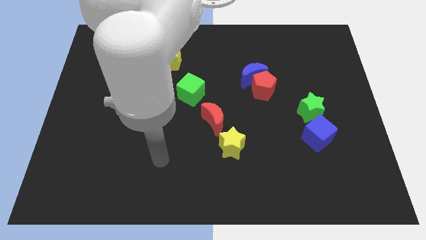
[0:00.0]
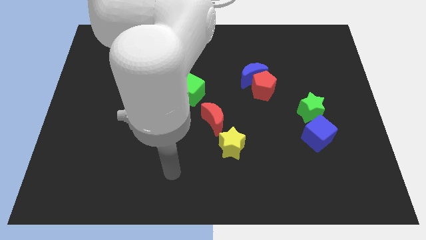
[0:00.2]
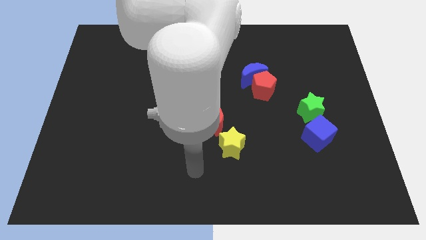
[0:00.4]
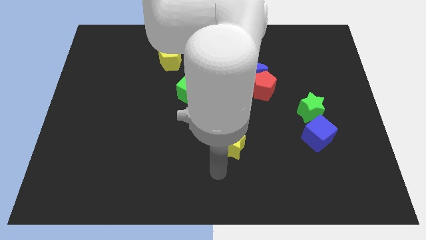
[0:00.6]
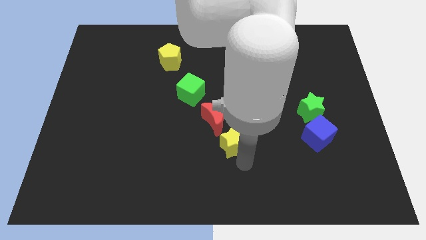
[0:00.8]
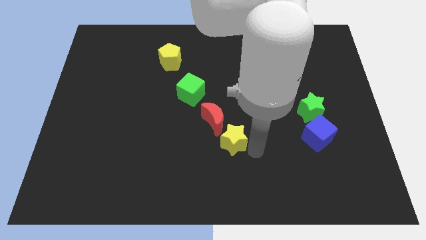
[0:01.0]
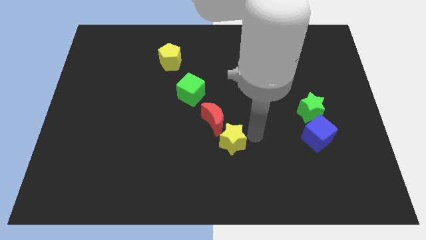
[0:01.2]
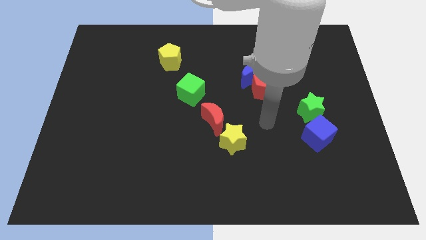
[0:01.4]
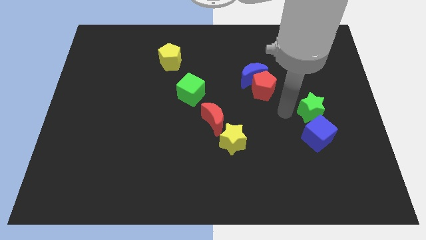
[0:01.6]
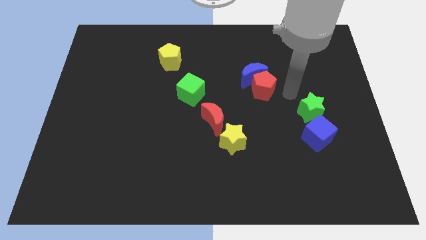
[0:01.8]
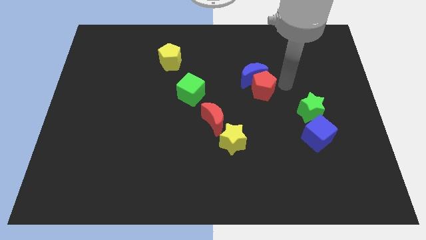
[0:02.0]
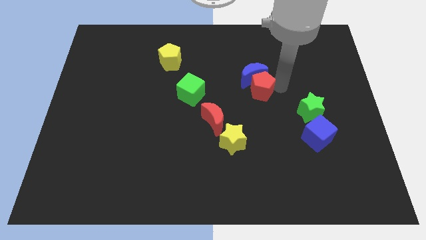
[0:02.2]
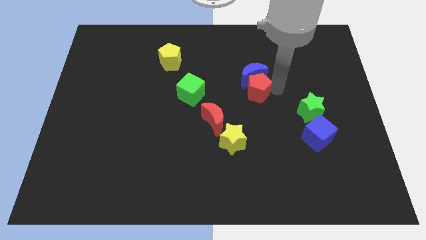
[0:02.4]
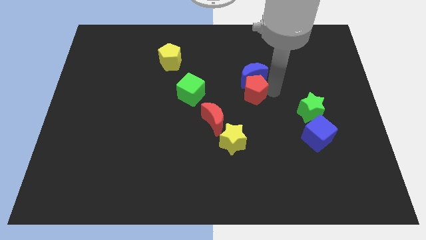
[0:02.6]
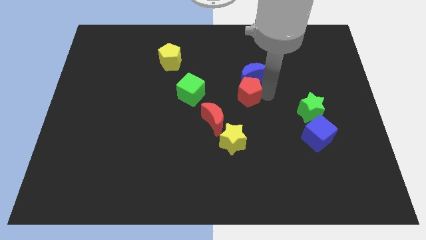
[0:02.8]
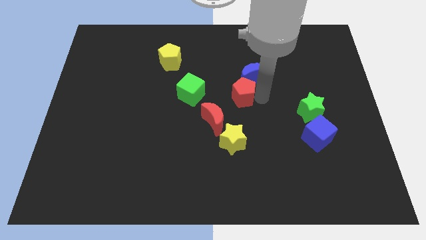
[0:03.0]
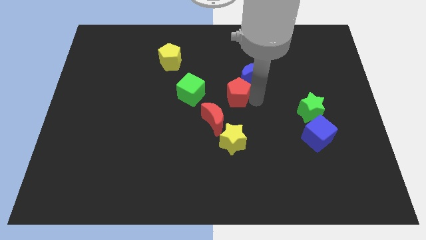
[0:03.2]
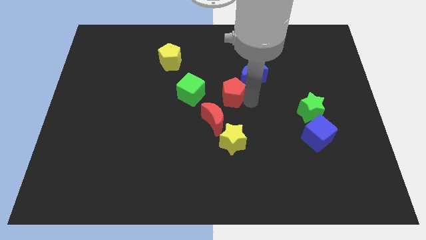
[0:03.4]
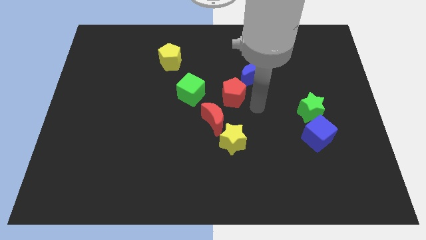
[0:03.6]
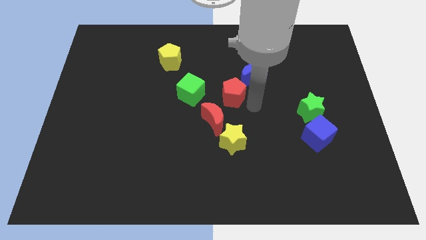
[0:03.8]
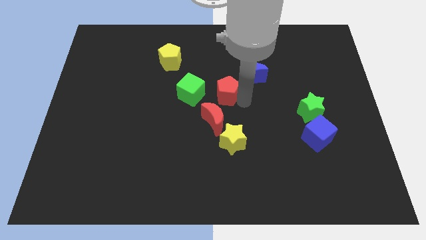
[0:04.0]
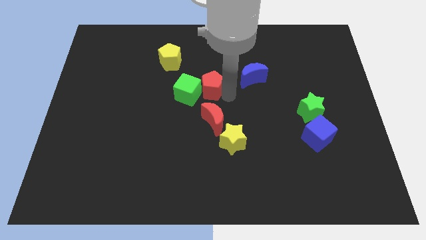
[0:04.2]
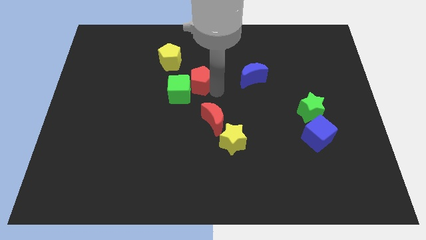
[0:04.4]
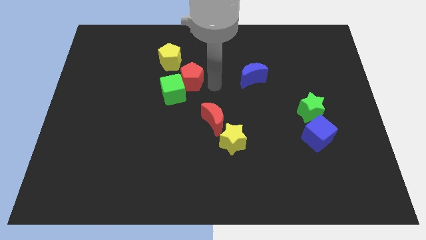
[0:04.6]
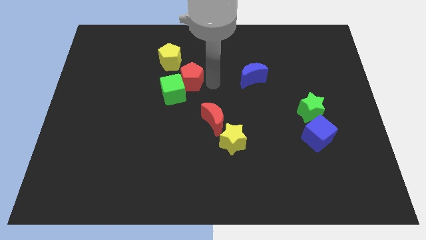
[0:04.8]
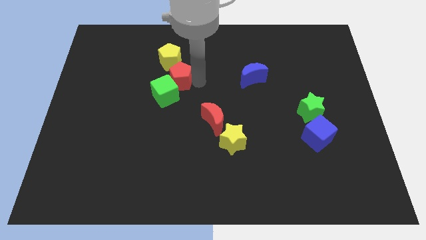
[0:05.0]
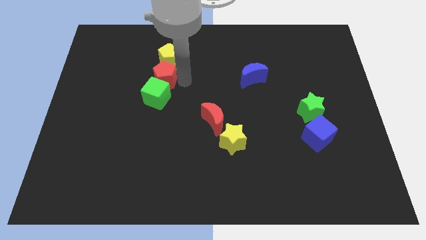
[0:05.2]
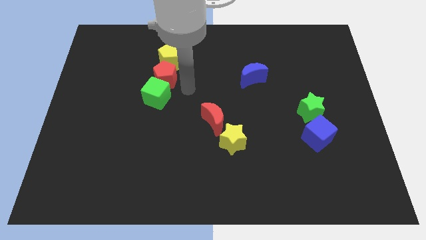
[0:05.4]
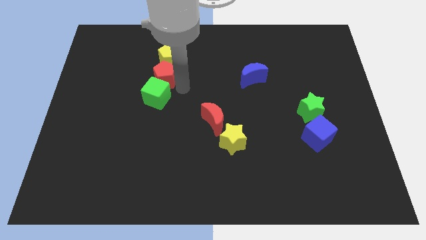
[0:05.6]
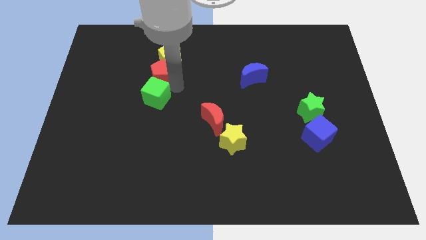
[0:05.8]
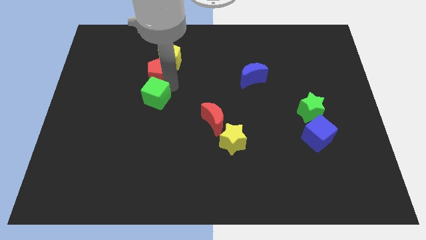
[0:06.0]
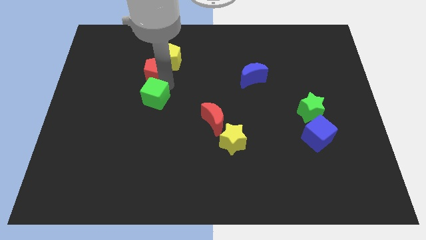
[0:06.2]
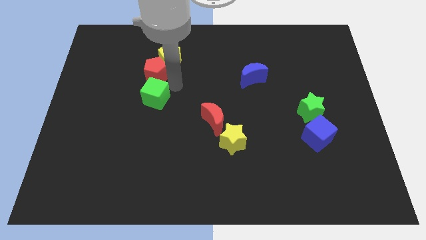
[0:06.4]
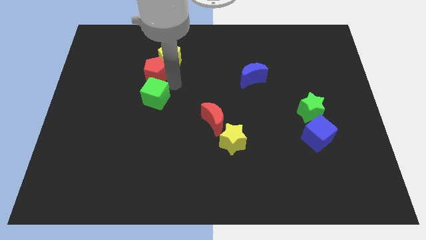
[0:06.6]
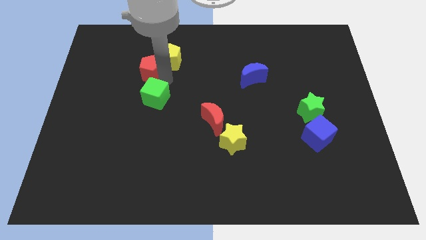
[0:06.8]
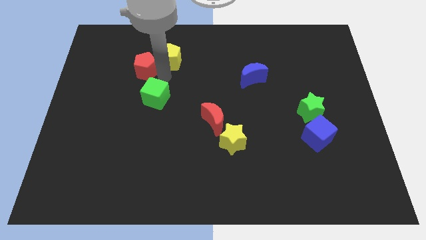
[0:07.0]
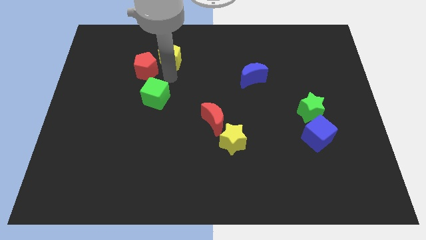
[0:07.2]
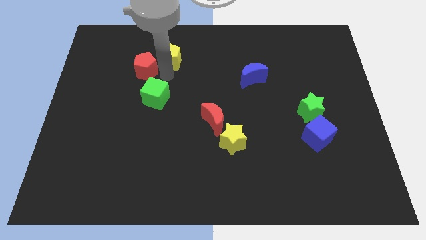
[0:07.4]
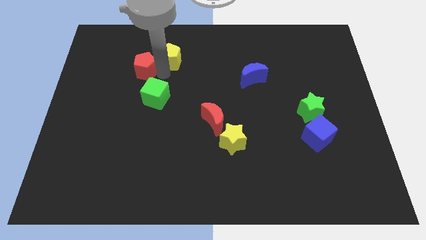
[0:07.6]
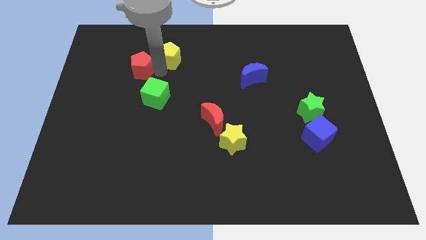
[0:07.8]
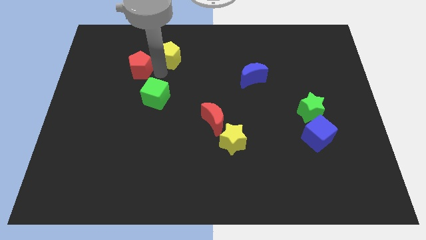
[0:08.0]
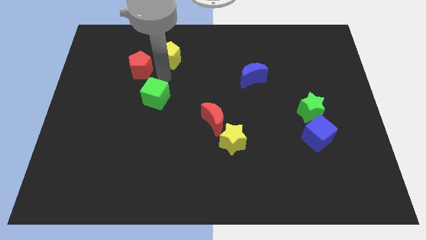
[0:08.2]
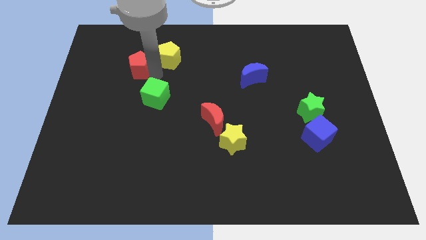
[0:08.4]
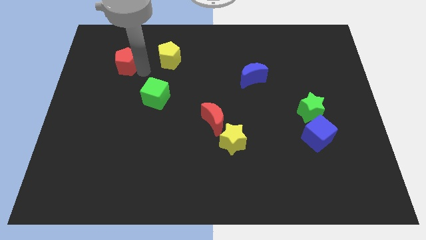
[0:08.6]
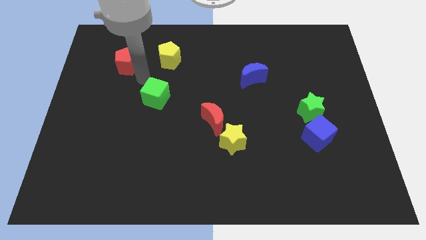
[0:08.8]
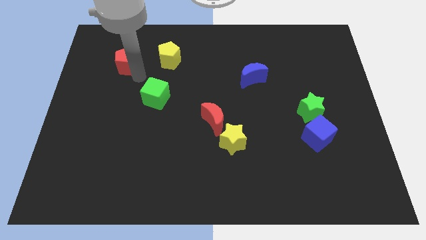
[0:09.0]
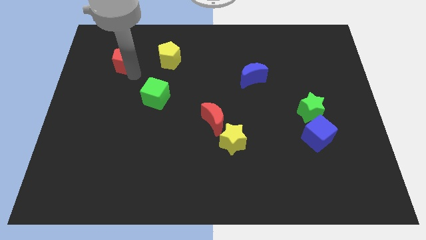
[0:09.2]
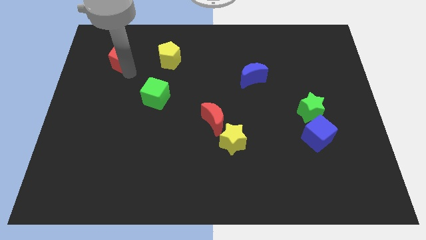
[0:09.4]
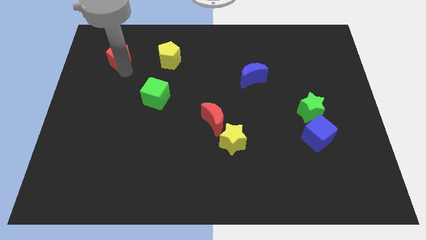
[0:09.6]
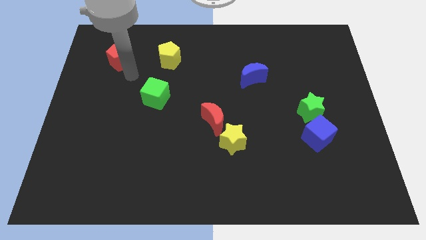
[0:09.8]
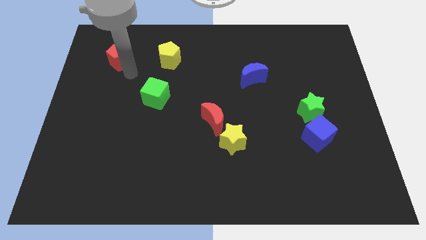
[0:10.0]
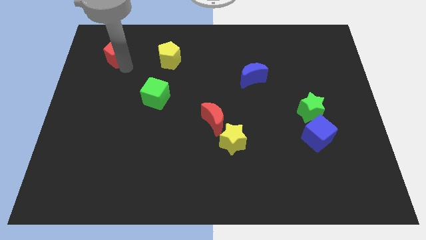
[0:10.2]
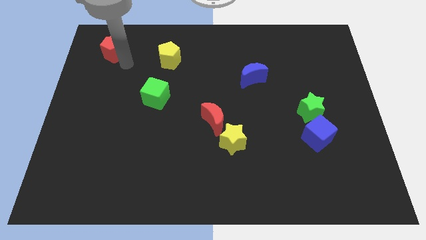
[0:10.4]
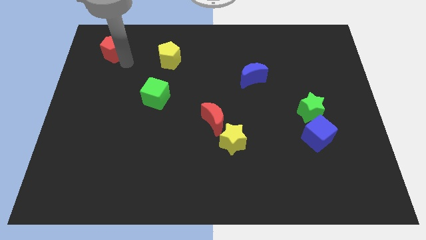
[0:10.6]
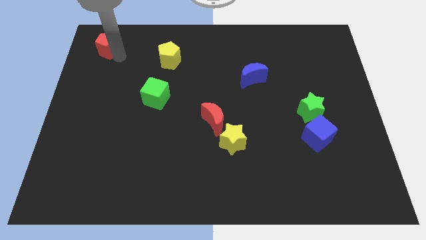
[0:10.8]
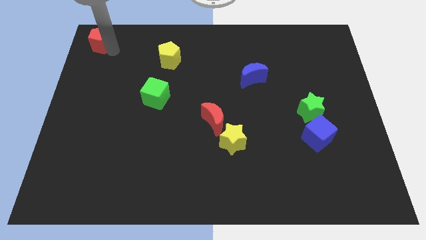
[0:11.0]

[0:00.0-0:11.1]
push the red pentagon to the top left corner
